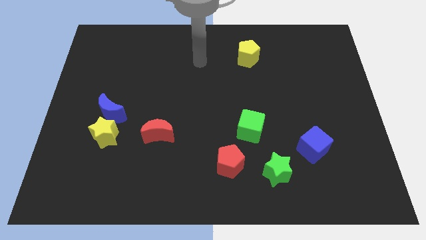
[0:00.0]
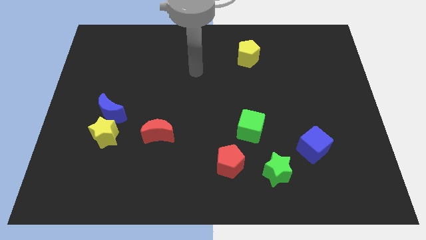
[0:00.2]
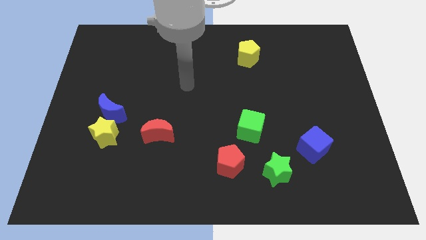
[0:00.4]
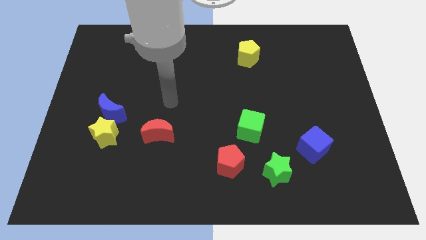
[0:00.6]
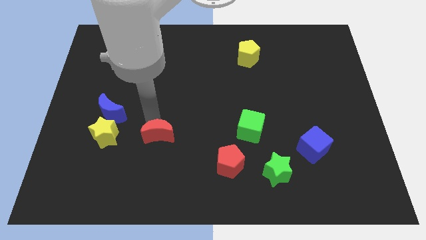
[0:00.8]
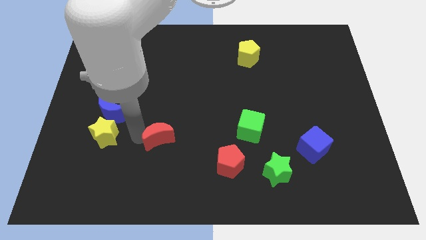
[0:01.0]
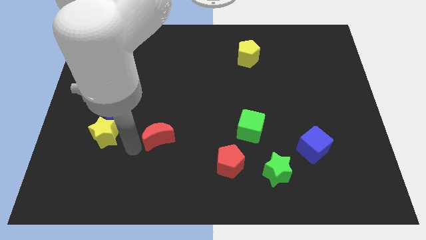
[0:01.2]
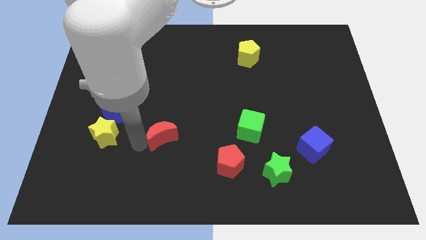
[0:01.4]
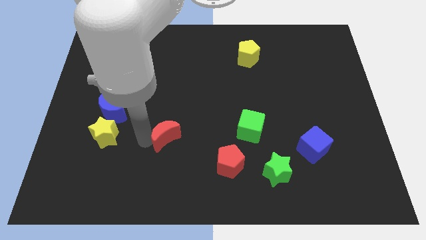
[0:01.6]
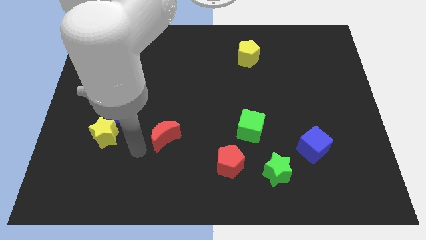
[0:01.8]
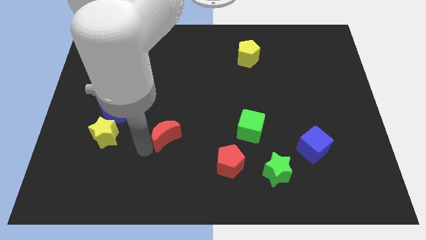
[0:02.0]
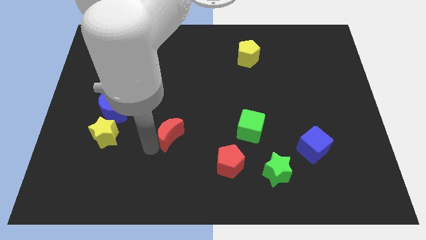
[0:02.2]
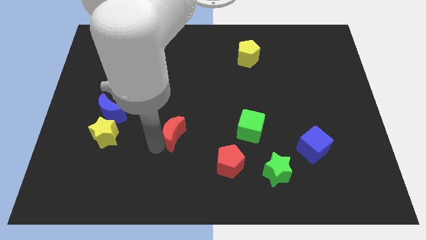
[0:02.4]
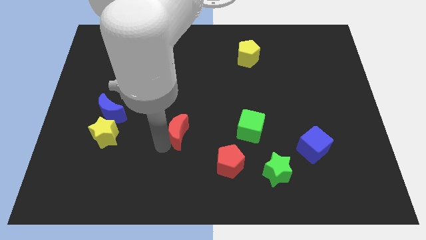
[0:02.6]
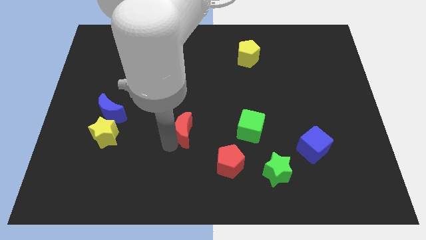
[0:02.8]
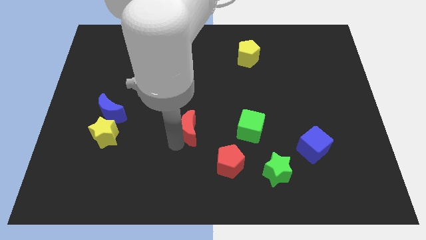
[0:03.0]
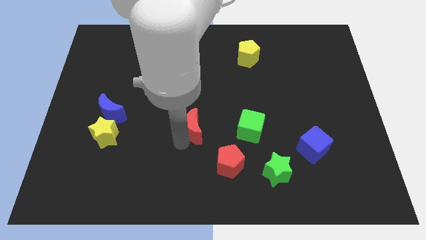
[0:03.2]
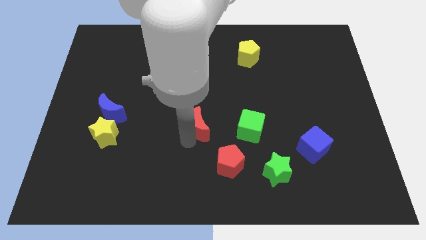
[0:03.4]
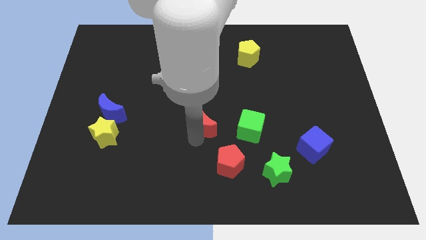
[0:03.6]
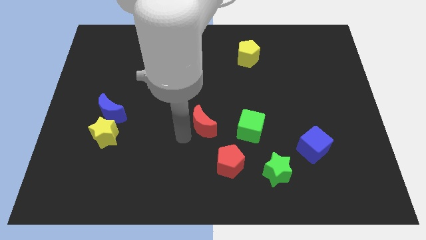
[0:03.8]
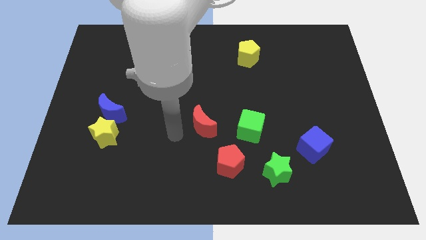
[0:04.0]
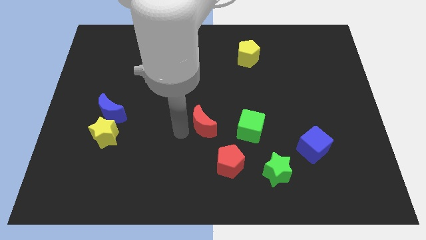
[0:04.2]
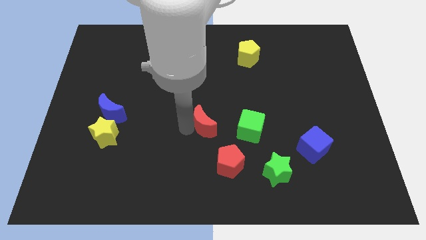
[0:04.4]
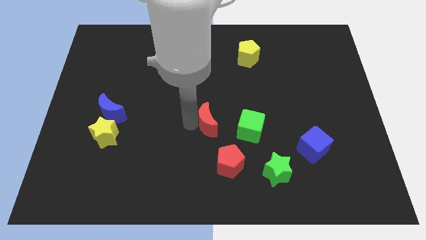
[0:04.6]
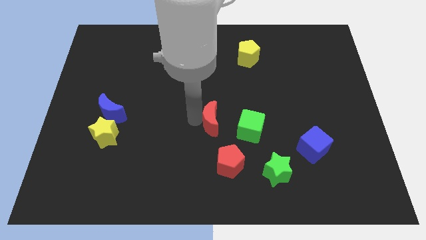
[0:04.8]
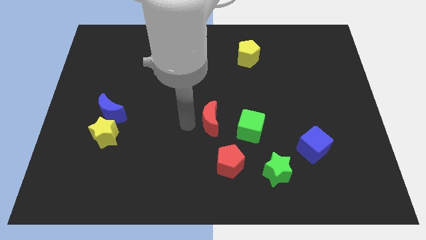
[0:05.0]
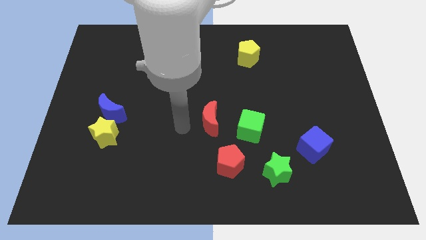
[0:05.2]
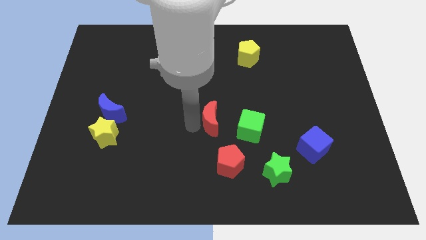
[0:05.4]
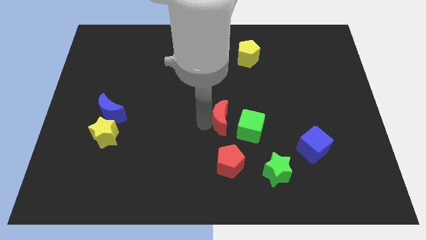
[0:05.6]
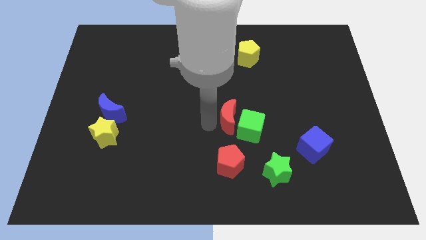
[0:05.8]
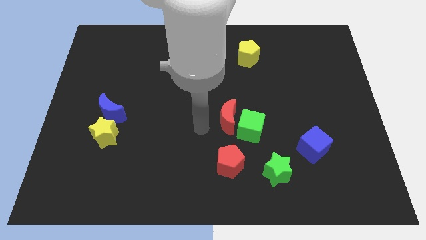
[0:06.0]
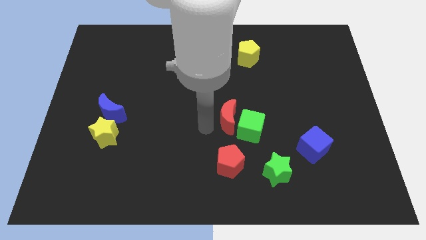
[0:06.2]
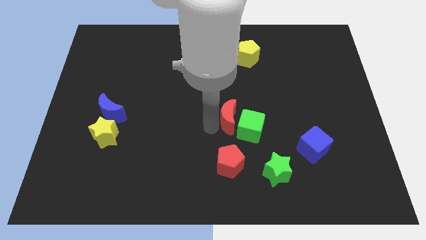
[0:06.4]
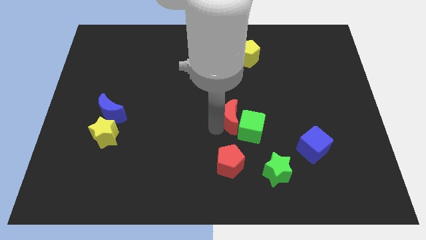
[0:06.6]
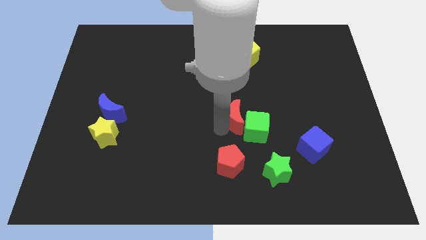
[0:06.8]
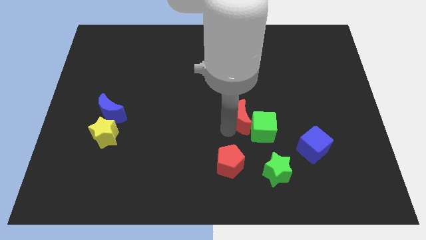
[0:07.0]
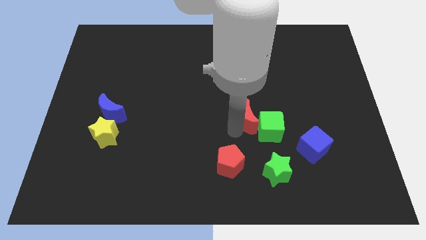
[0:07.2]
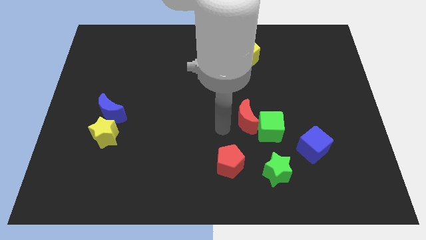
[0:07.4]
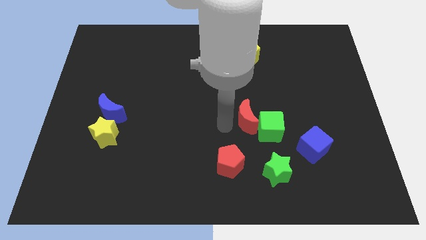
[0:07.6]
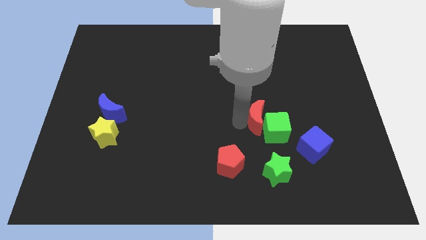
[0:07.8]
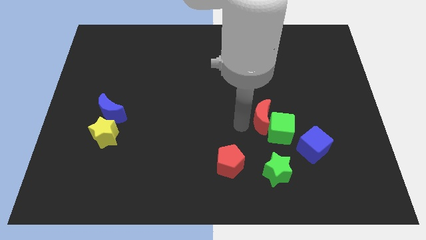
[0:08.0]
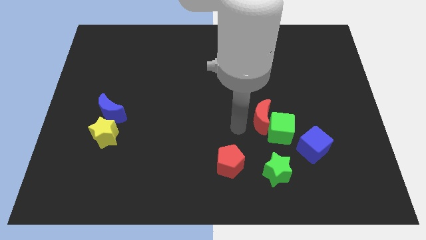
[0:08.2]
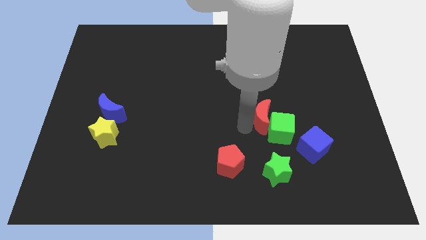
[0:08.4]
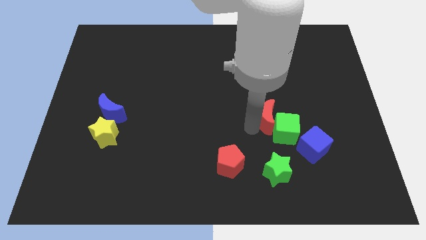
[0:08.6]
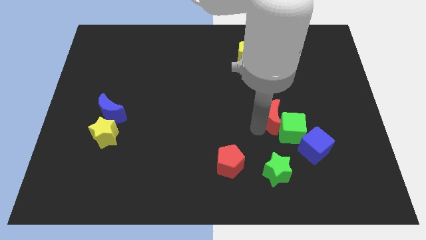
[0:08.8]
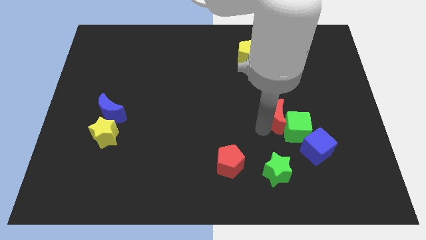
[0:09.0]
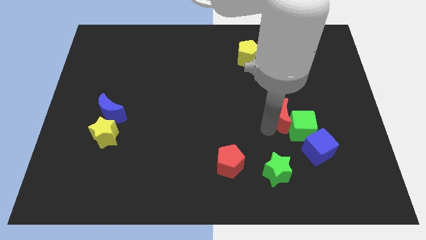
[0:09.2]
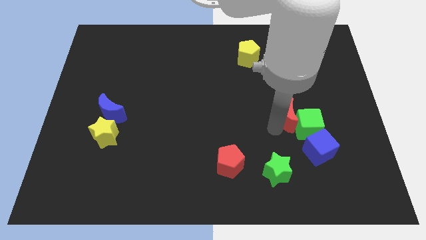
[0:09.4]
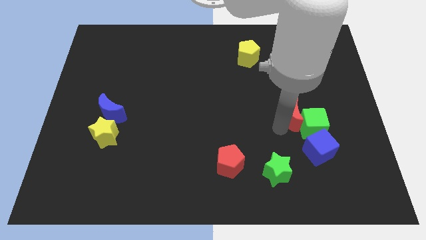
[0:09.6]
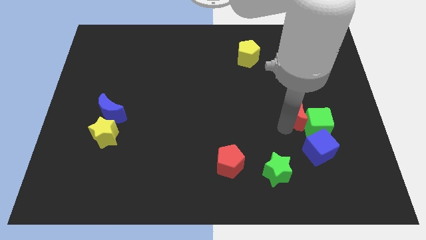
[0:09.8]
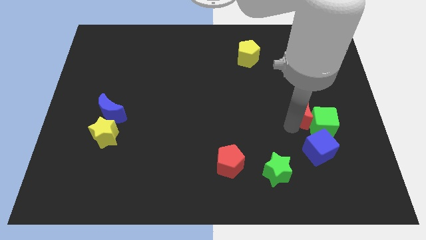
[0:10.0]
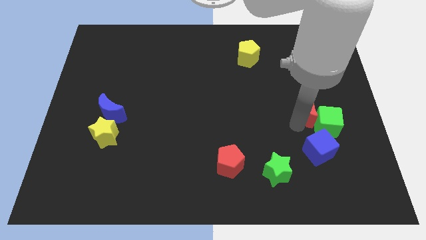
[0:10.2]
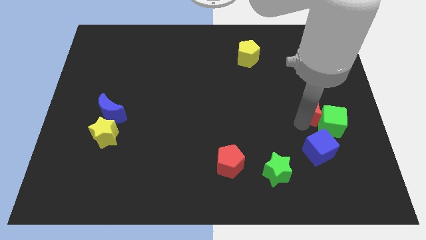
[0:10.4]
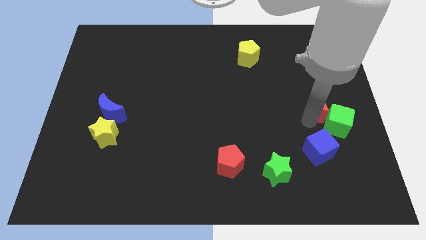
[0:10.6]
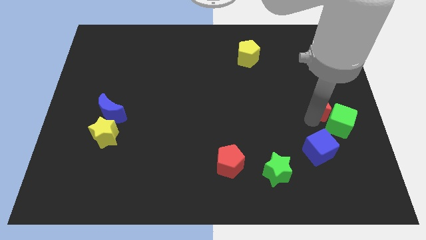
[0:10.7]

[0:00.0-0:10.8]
slide the red moon to the center right

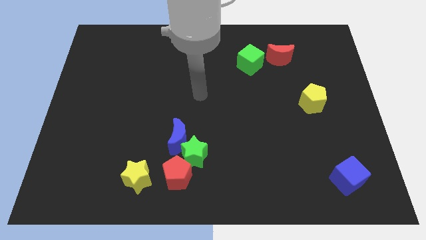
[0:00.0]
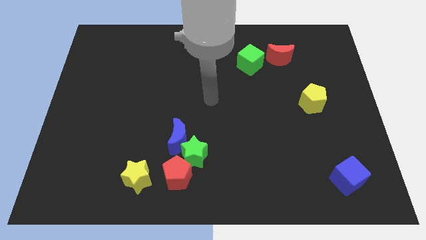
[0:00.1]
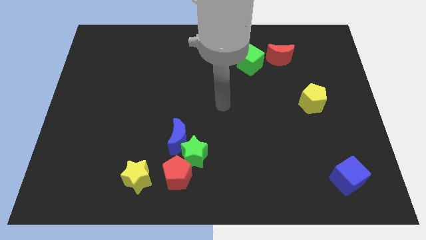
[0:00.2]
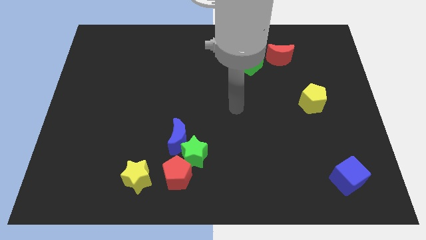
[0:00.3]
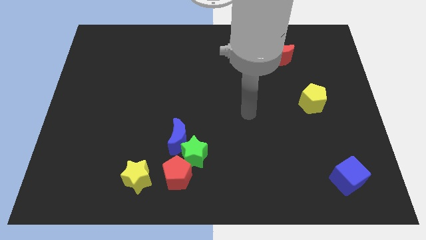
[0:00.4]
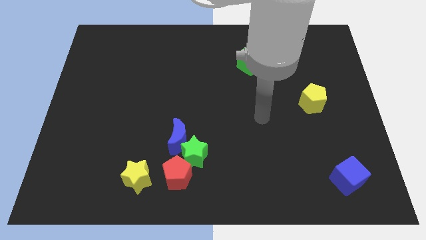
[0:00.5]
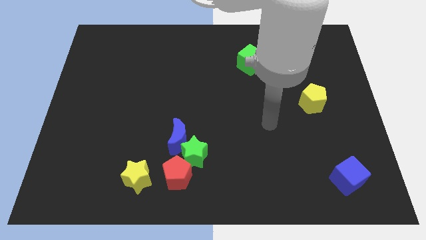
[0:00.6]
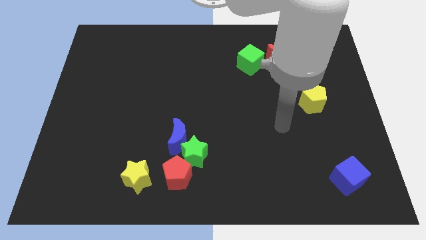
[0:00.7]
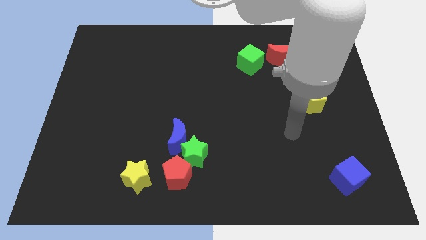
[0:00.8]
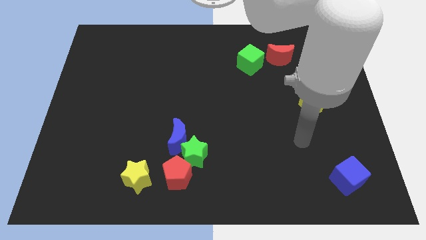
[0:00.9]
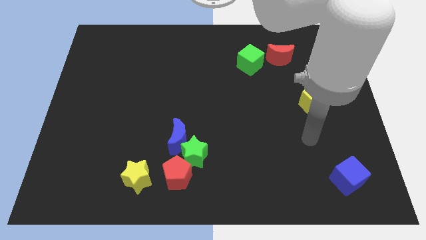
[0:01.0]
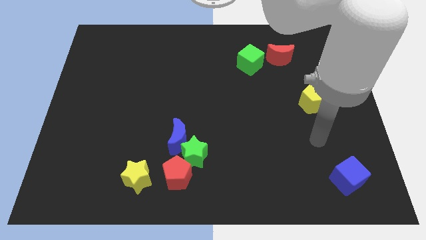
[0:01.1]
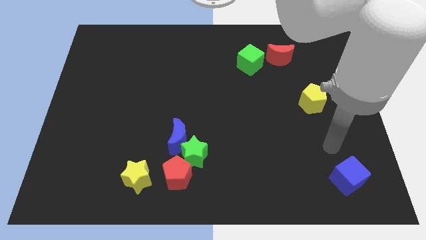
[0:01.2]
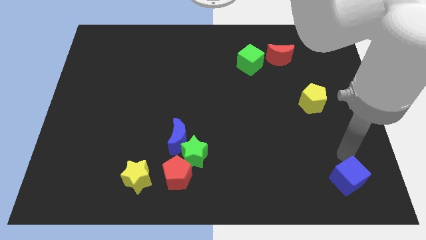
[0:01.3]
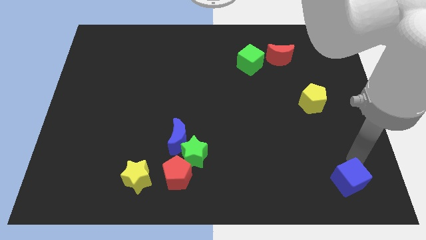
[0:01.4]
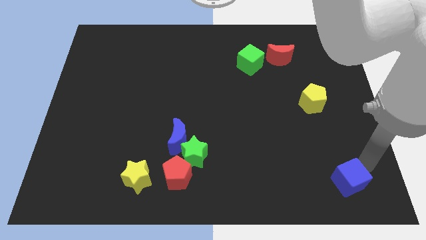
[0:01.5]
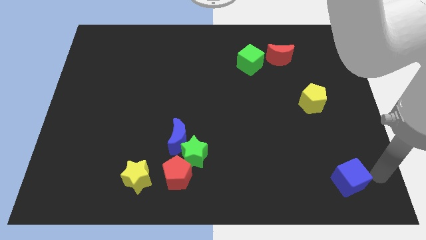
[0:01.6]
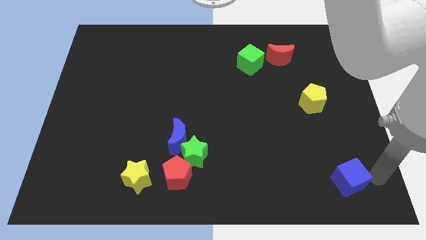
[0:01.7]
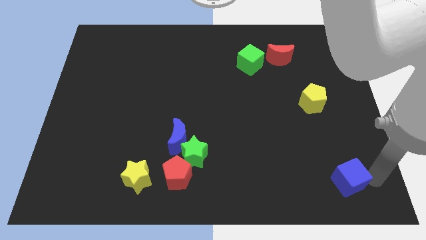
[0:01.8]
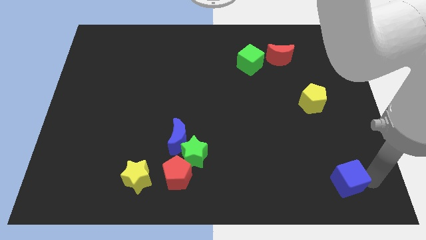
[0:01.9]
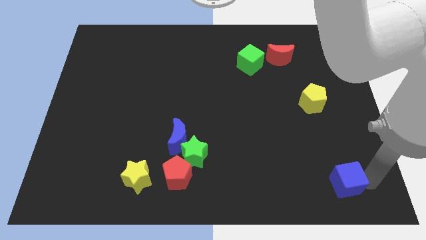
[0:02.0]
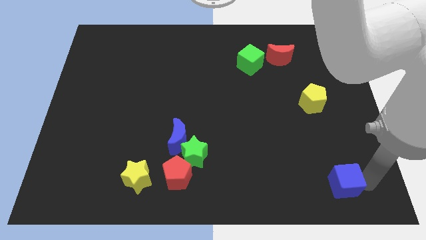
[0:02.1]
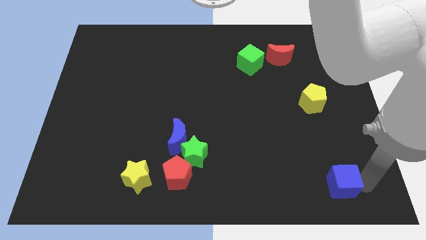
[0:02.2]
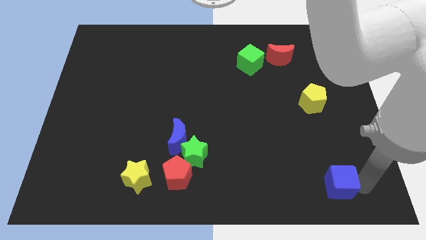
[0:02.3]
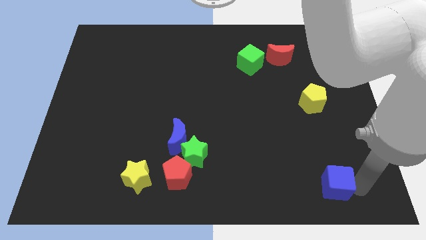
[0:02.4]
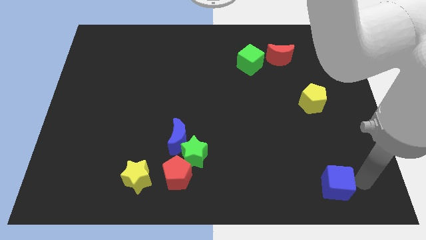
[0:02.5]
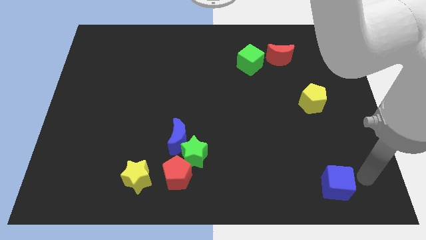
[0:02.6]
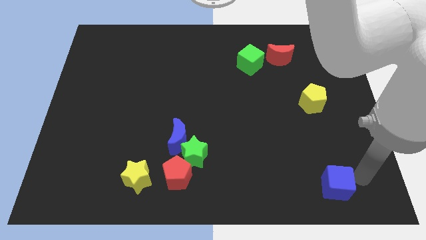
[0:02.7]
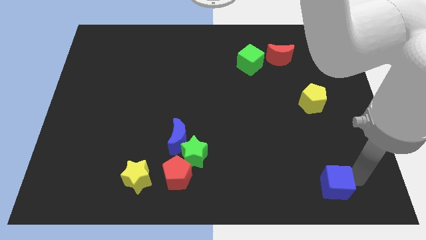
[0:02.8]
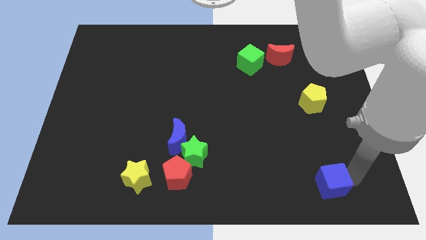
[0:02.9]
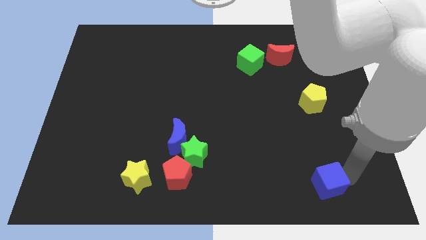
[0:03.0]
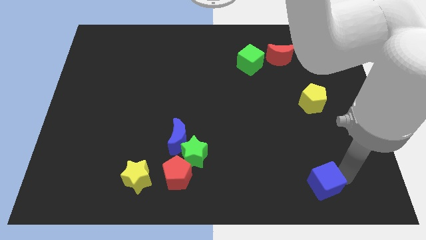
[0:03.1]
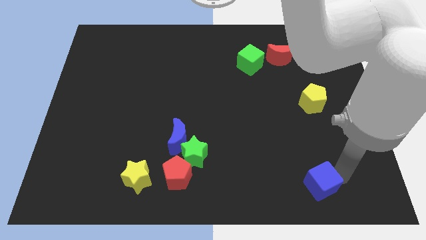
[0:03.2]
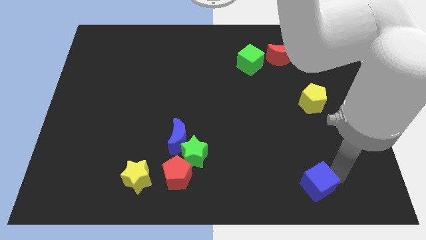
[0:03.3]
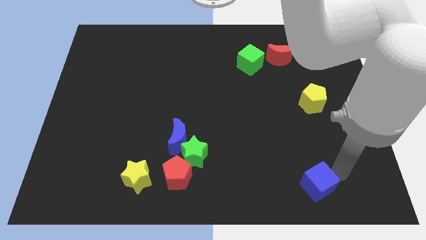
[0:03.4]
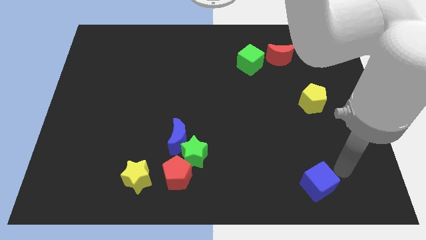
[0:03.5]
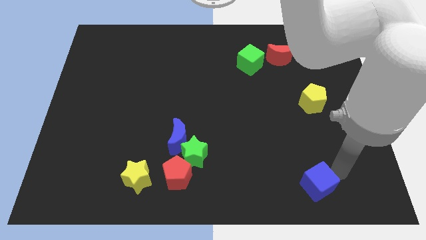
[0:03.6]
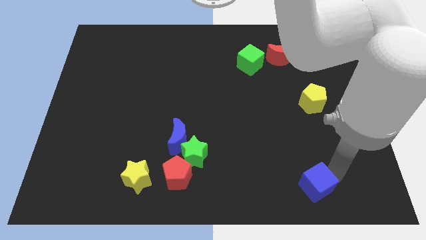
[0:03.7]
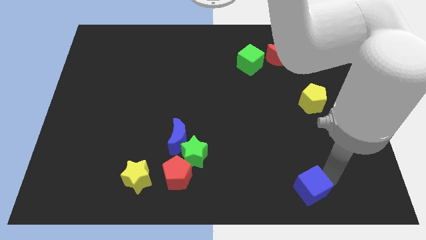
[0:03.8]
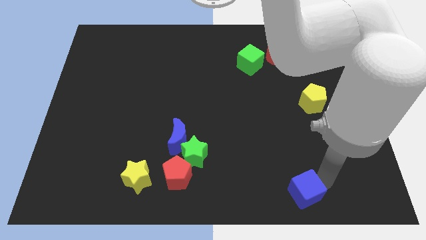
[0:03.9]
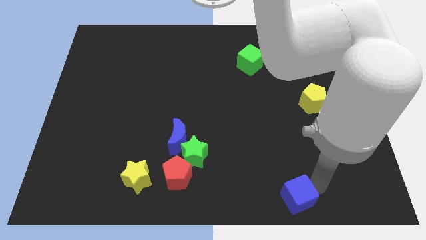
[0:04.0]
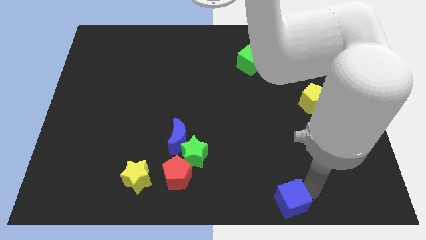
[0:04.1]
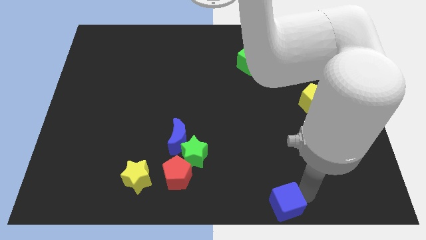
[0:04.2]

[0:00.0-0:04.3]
move the blue cube to the bottom side
